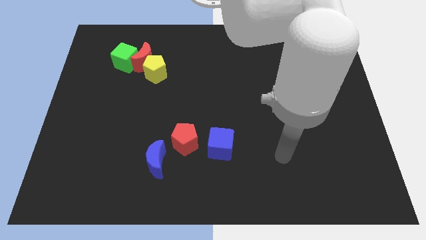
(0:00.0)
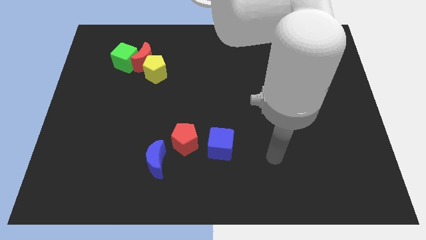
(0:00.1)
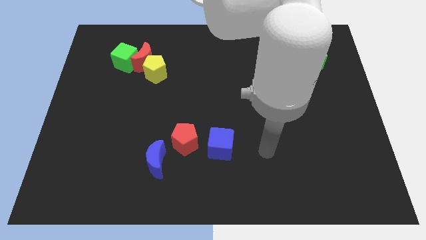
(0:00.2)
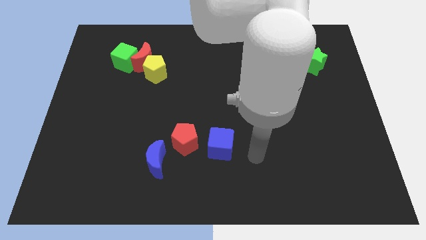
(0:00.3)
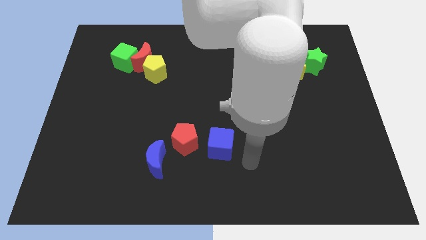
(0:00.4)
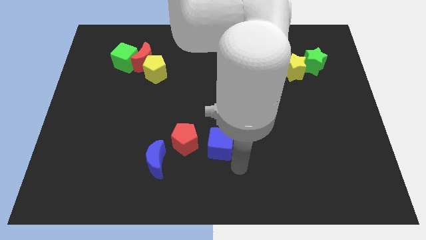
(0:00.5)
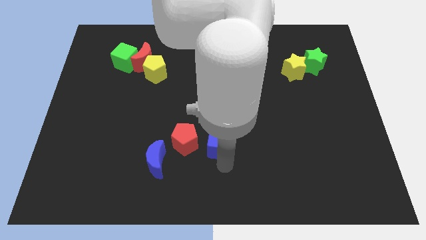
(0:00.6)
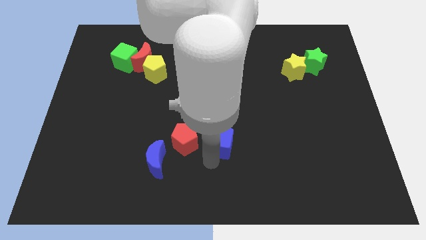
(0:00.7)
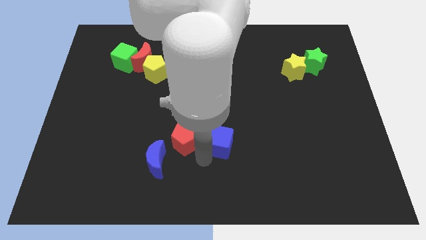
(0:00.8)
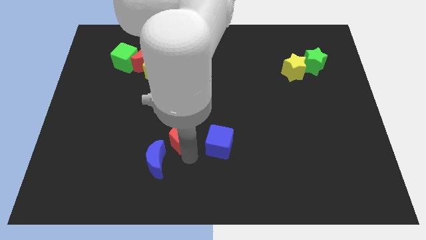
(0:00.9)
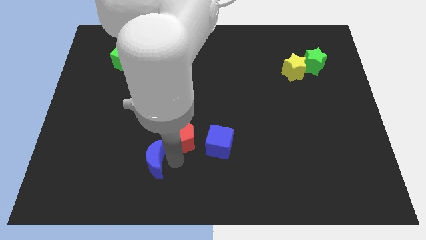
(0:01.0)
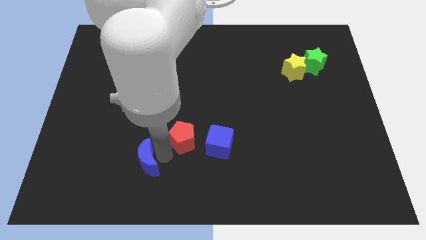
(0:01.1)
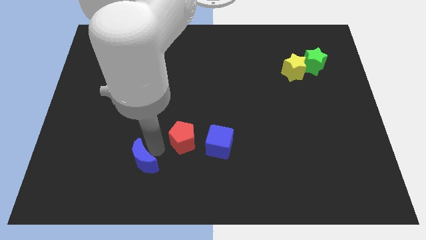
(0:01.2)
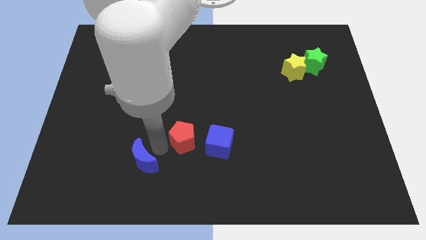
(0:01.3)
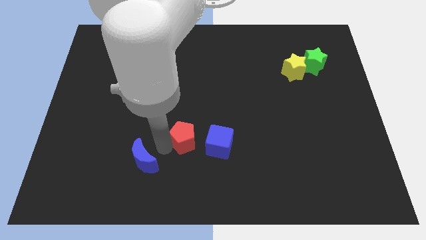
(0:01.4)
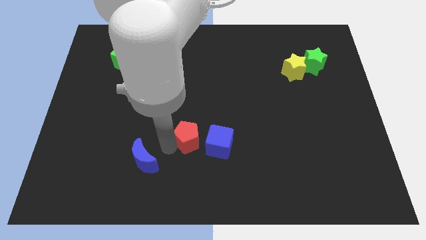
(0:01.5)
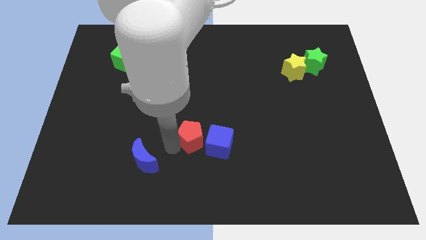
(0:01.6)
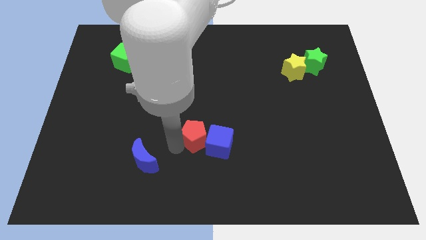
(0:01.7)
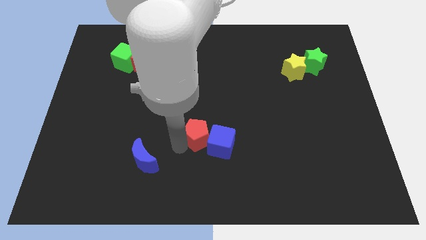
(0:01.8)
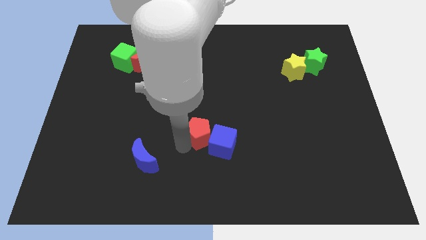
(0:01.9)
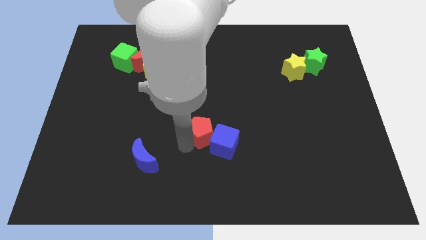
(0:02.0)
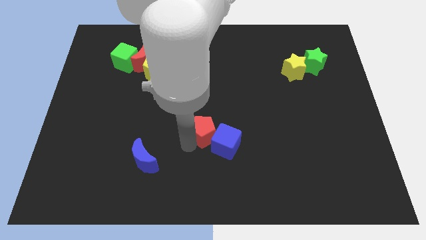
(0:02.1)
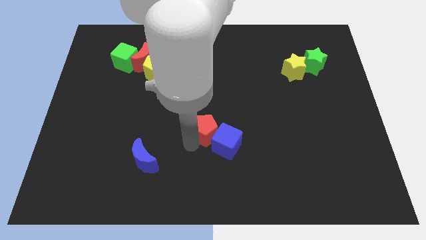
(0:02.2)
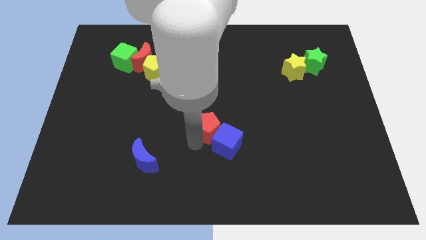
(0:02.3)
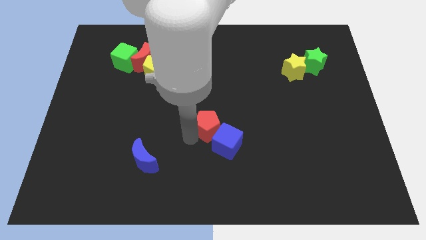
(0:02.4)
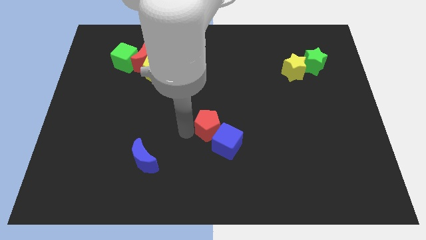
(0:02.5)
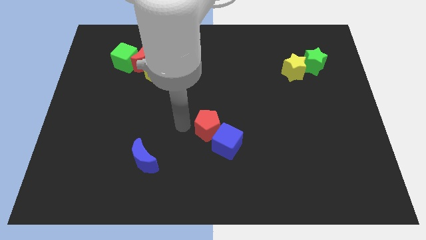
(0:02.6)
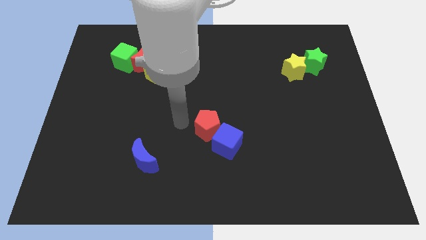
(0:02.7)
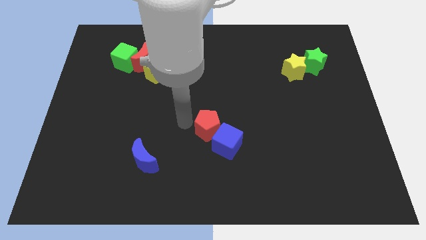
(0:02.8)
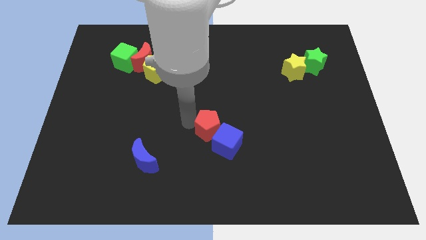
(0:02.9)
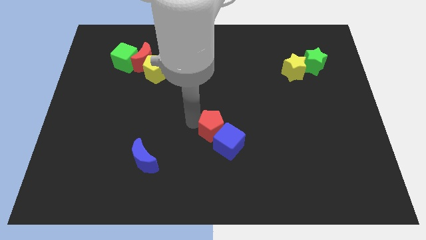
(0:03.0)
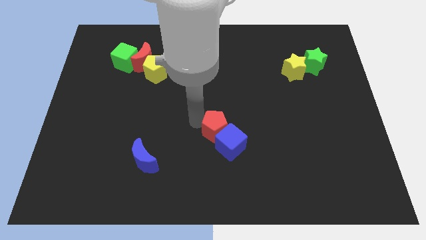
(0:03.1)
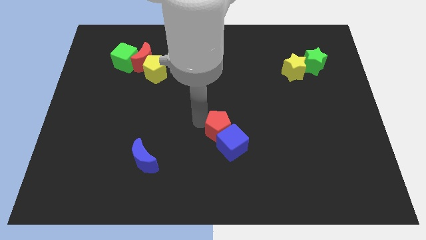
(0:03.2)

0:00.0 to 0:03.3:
slightly slide the red pentagon right

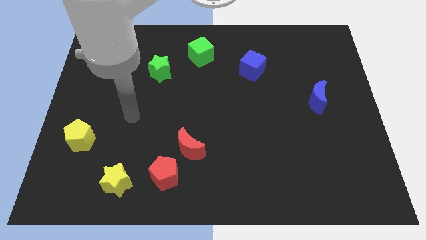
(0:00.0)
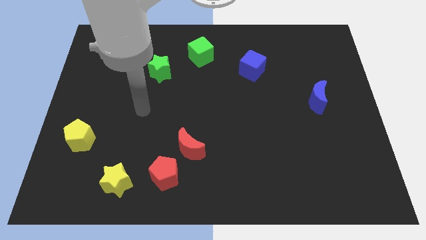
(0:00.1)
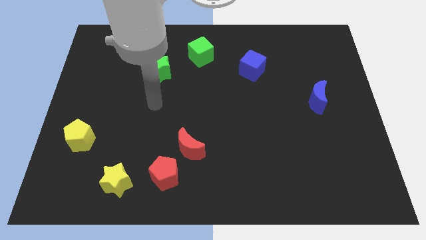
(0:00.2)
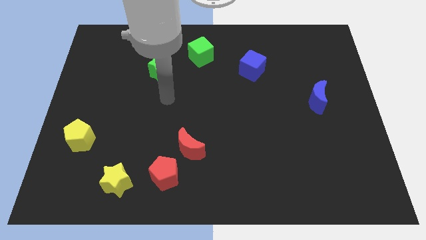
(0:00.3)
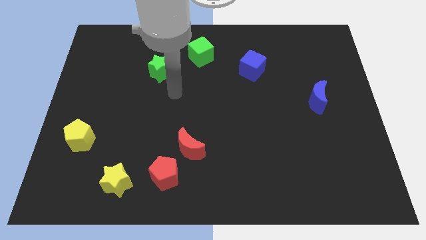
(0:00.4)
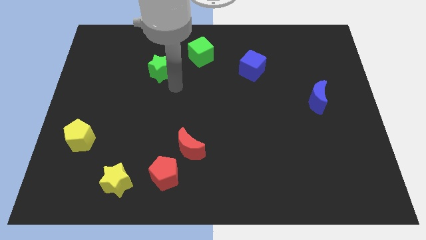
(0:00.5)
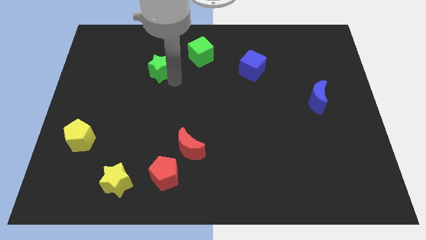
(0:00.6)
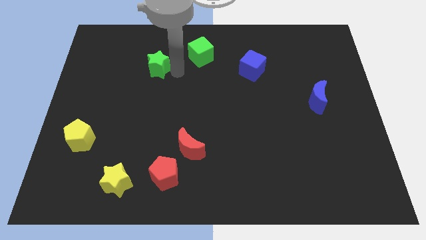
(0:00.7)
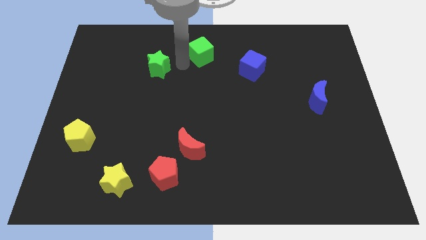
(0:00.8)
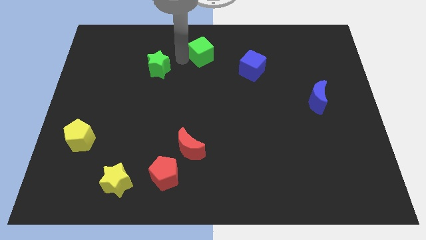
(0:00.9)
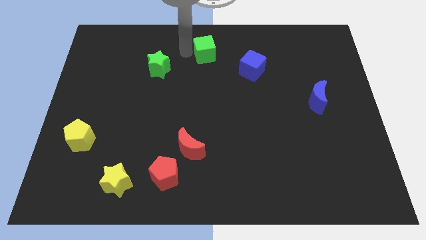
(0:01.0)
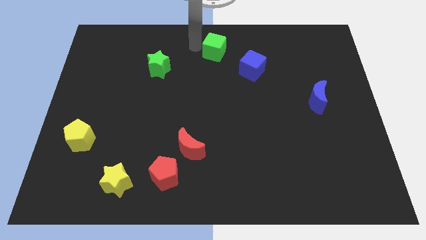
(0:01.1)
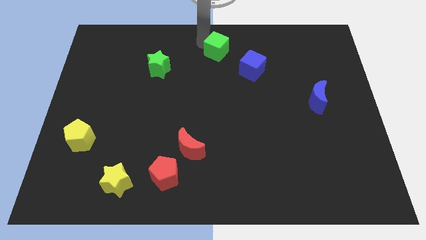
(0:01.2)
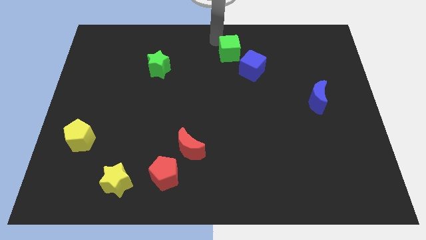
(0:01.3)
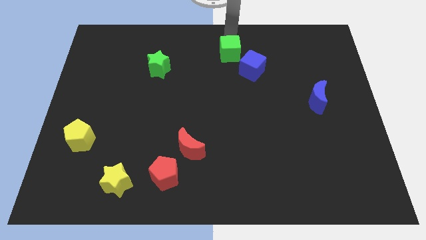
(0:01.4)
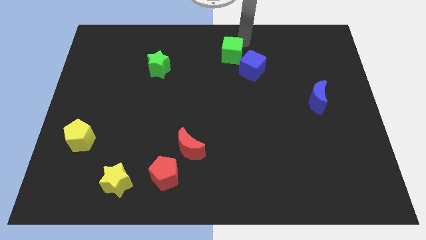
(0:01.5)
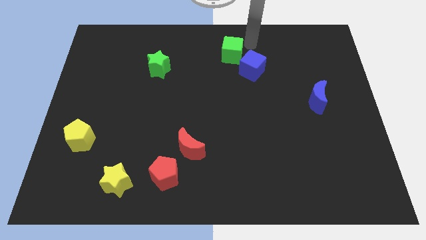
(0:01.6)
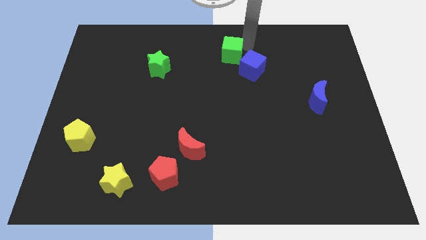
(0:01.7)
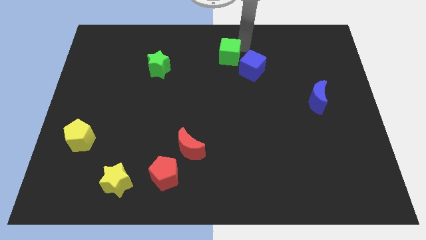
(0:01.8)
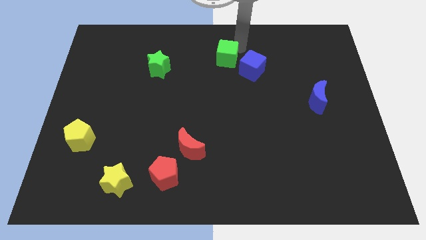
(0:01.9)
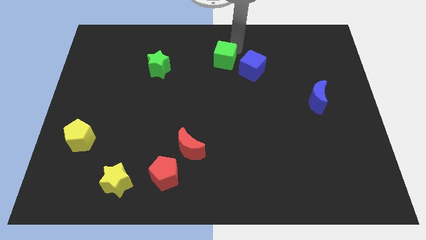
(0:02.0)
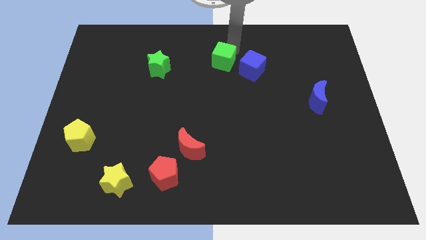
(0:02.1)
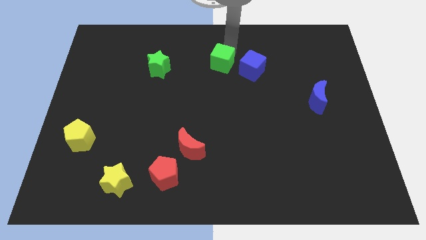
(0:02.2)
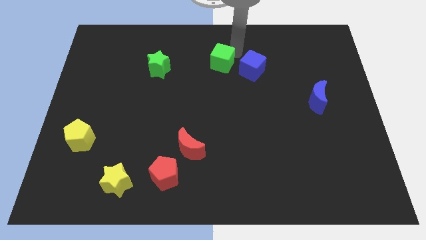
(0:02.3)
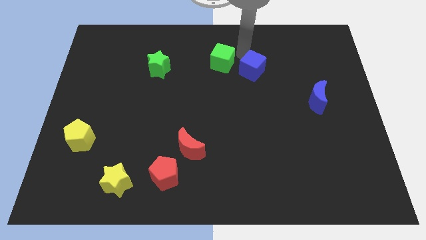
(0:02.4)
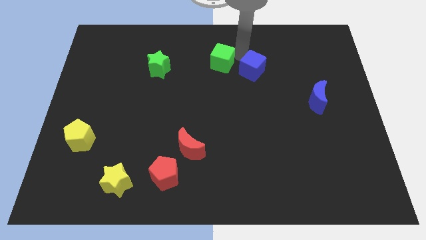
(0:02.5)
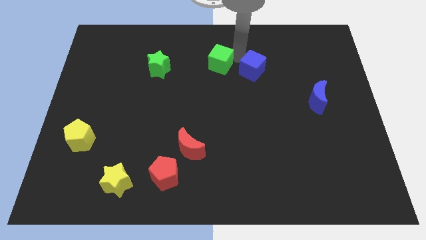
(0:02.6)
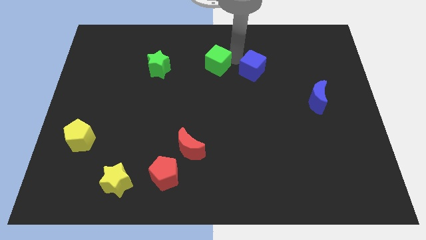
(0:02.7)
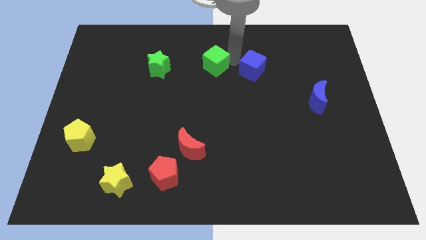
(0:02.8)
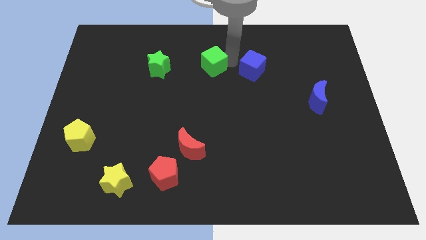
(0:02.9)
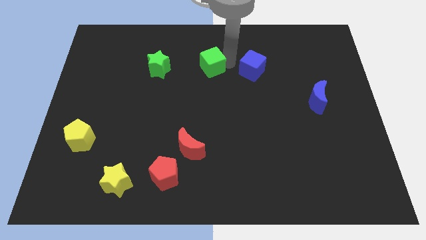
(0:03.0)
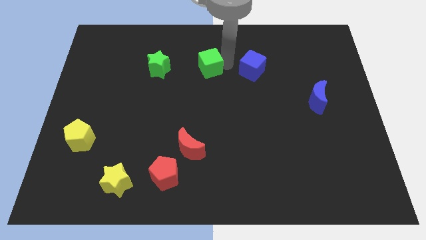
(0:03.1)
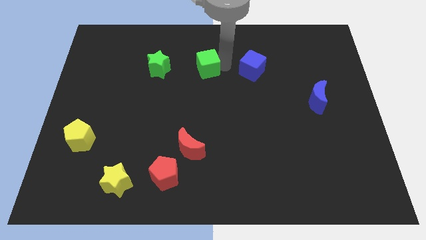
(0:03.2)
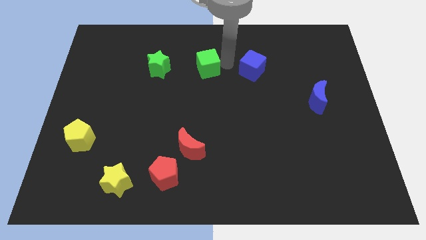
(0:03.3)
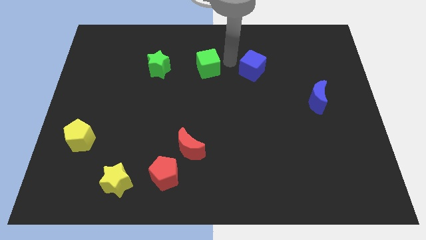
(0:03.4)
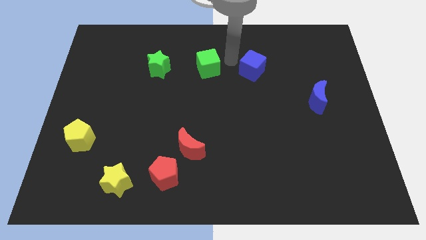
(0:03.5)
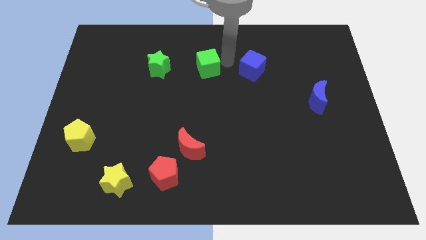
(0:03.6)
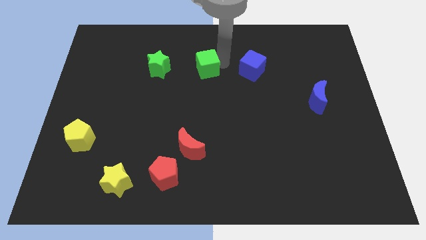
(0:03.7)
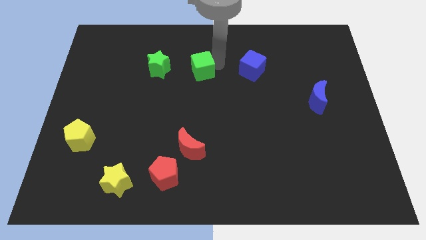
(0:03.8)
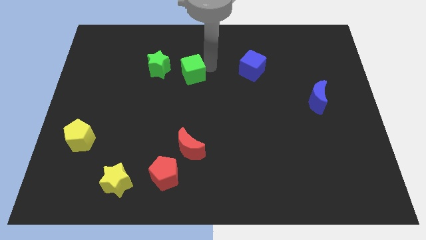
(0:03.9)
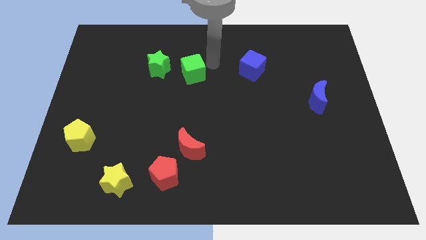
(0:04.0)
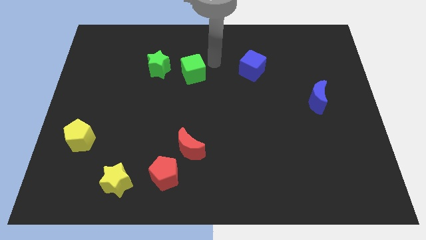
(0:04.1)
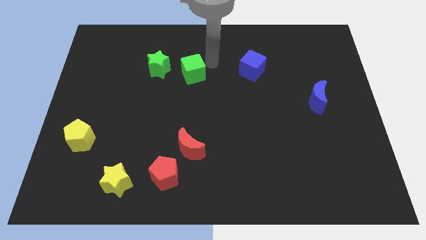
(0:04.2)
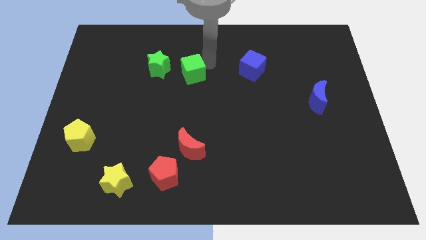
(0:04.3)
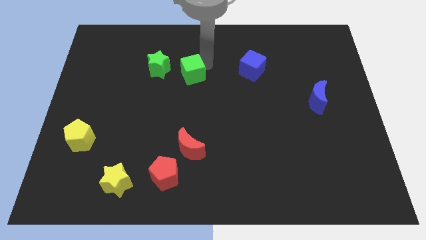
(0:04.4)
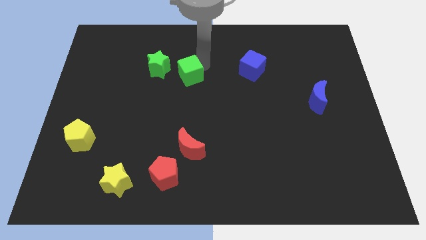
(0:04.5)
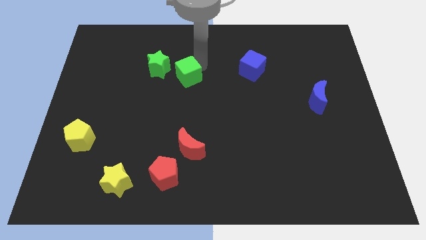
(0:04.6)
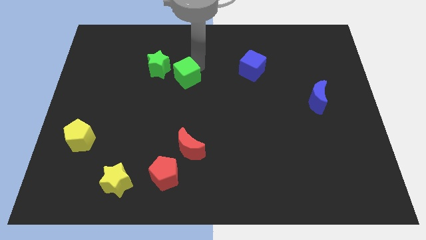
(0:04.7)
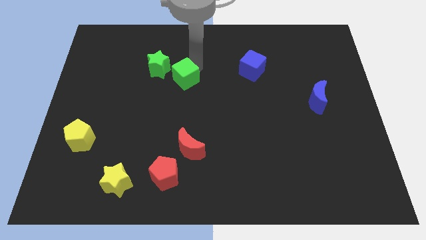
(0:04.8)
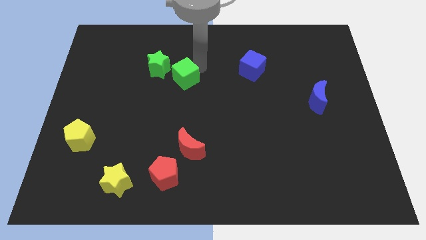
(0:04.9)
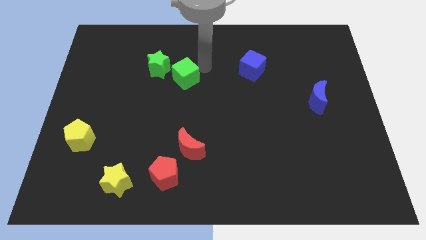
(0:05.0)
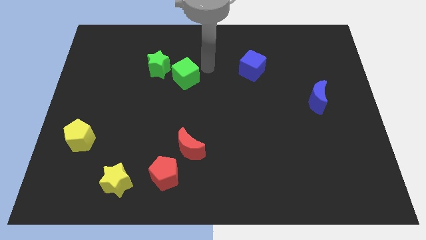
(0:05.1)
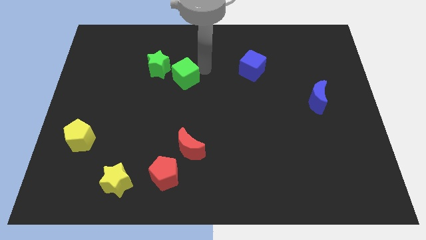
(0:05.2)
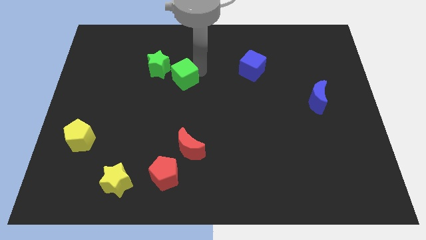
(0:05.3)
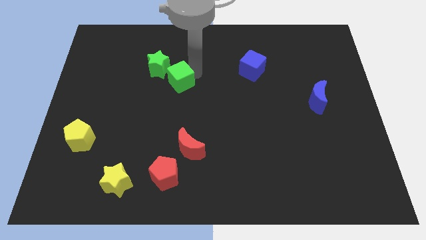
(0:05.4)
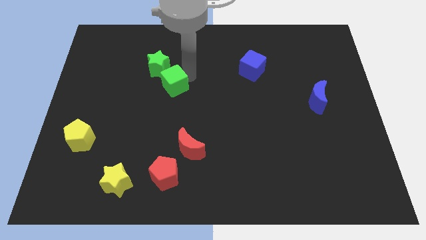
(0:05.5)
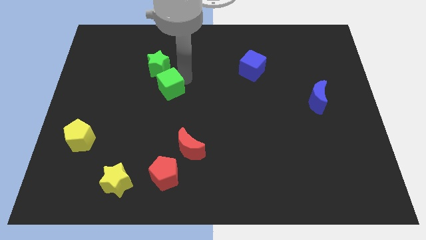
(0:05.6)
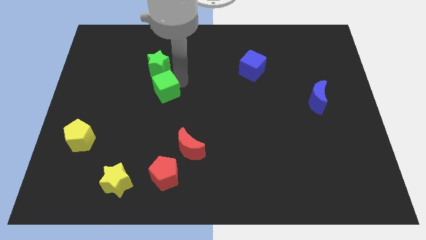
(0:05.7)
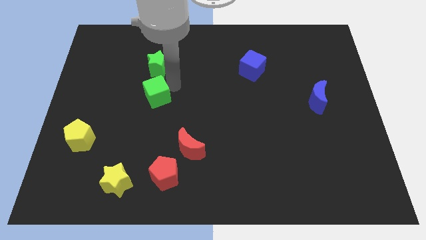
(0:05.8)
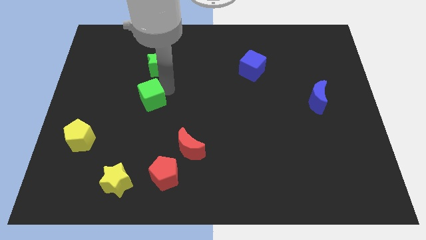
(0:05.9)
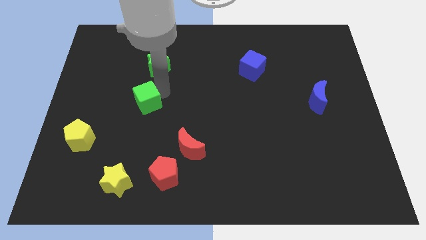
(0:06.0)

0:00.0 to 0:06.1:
push the green cube diagonally down and left
